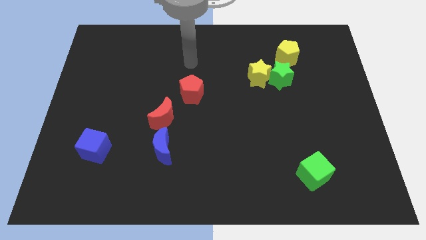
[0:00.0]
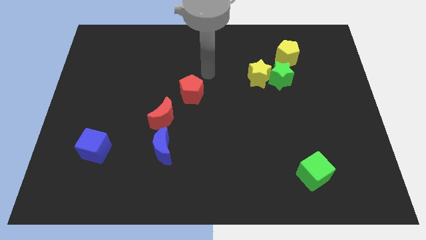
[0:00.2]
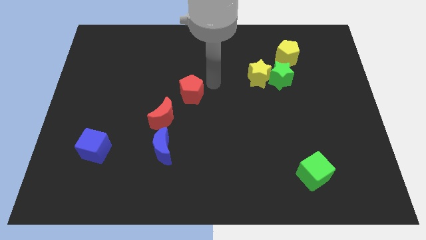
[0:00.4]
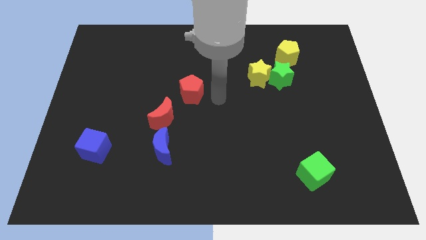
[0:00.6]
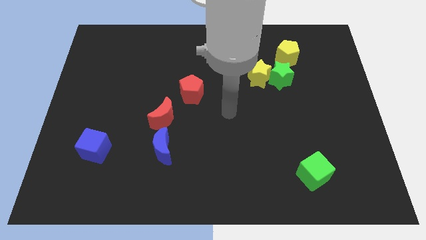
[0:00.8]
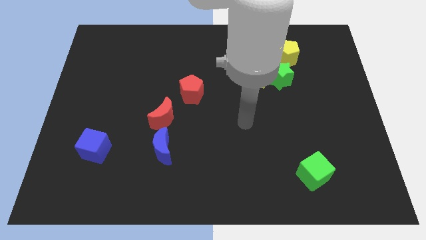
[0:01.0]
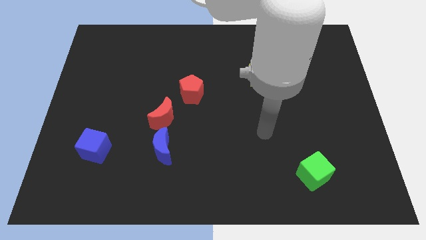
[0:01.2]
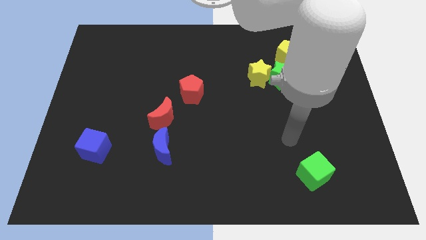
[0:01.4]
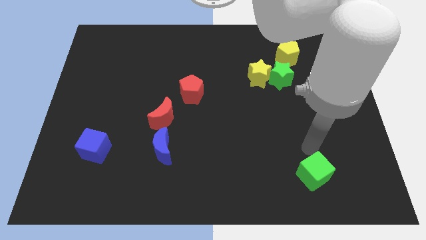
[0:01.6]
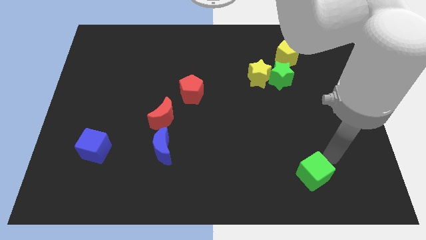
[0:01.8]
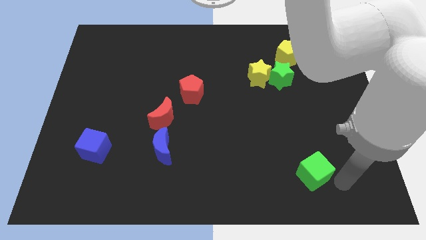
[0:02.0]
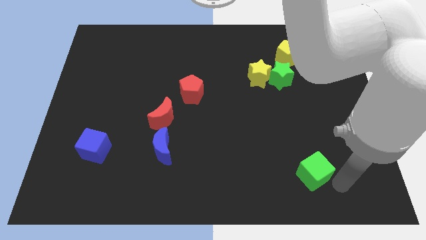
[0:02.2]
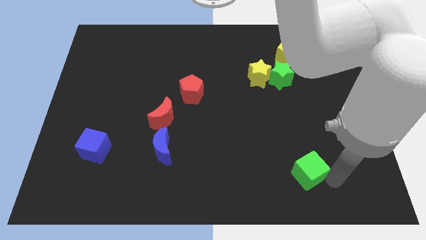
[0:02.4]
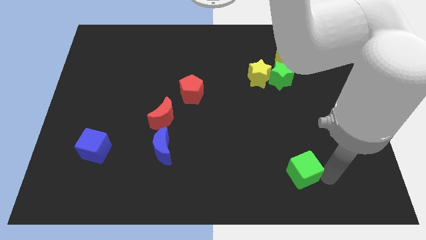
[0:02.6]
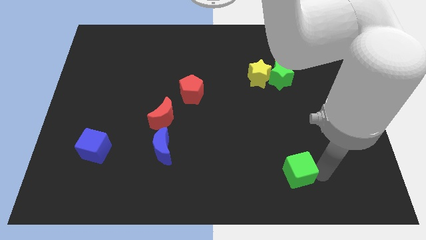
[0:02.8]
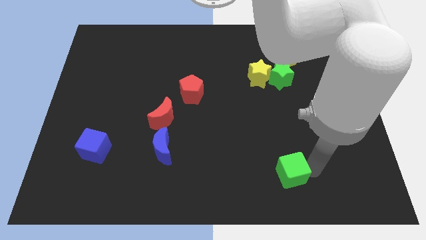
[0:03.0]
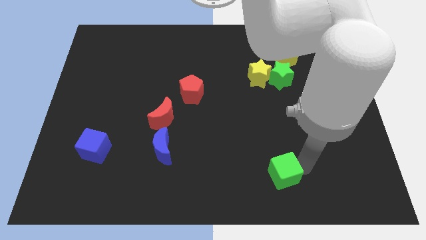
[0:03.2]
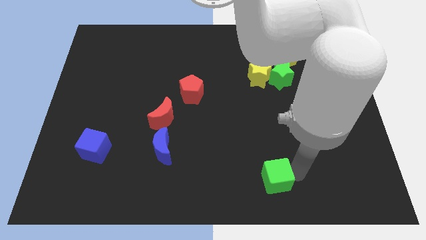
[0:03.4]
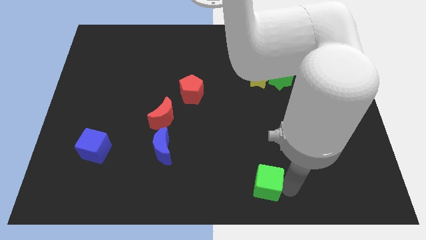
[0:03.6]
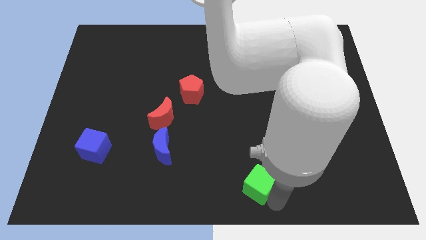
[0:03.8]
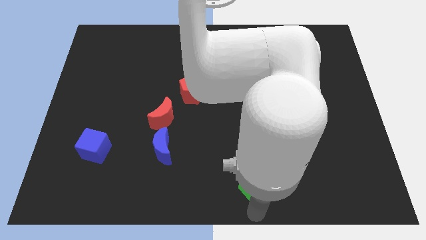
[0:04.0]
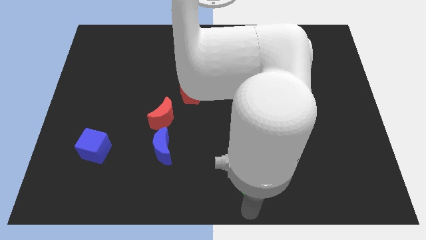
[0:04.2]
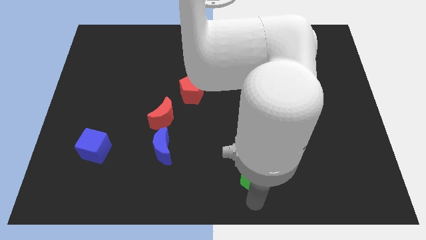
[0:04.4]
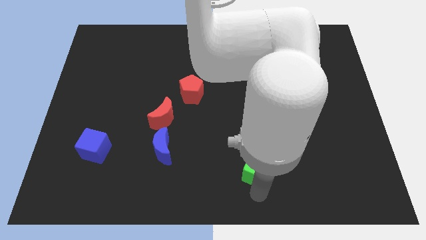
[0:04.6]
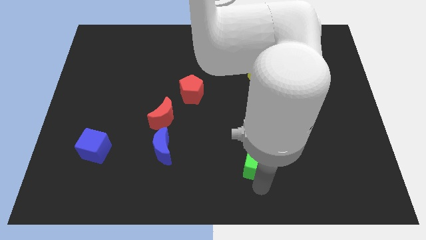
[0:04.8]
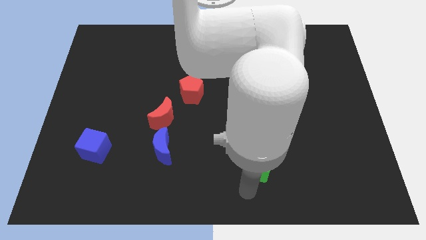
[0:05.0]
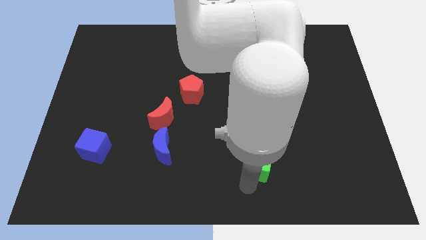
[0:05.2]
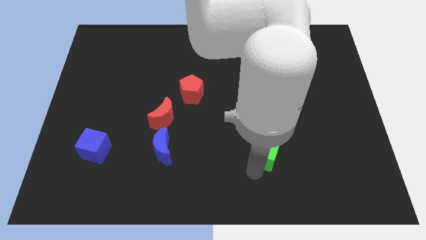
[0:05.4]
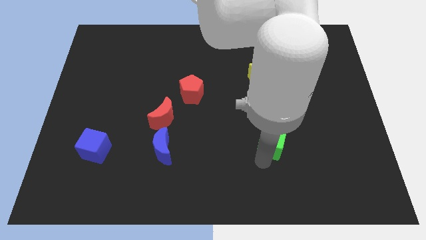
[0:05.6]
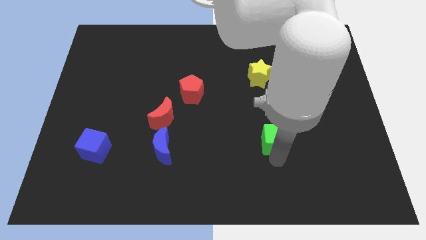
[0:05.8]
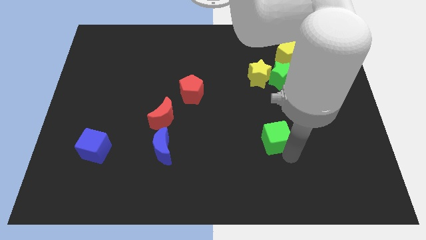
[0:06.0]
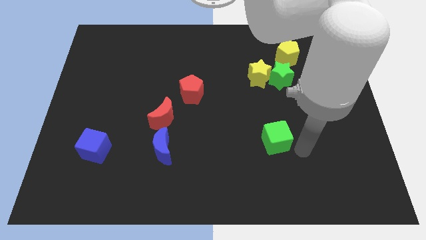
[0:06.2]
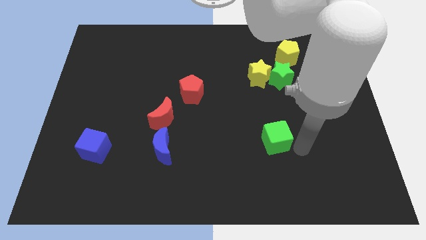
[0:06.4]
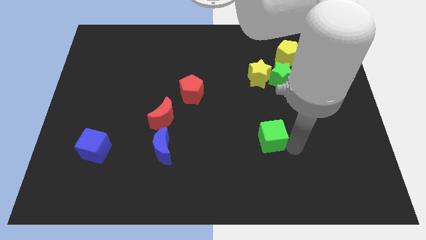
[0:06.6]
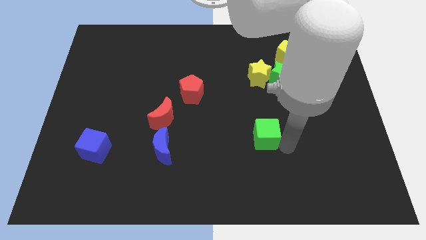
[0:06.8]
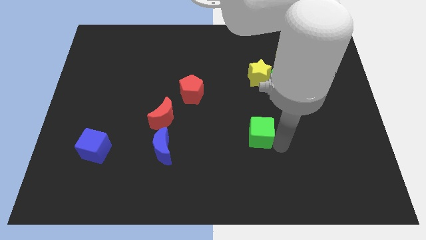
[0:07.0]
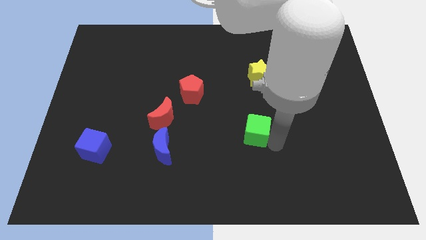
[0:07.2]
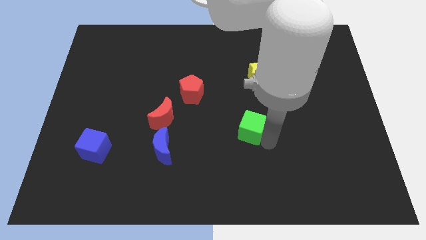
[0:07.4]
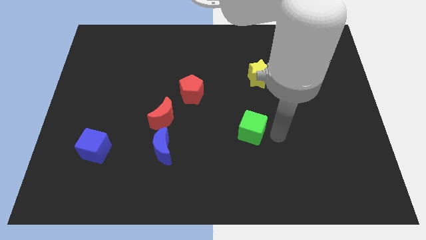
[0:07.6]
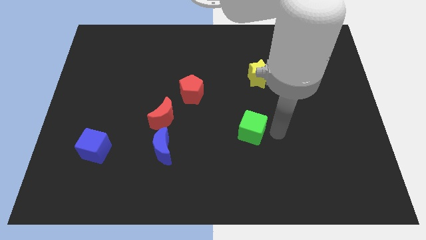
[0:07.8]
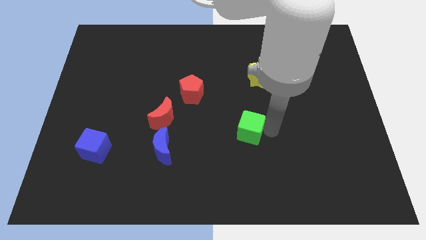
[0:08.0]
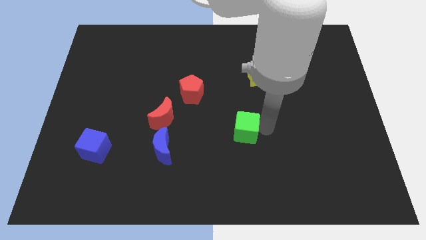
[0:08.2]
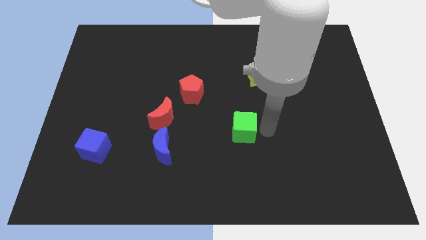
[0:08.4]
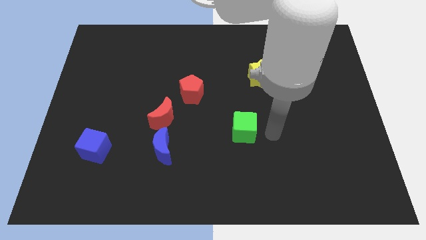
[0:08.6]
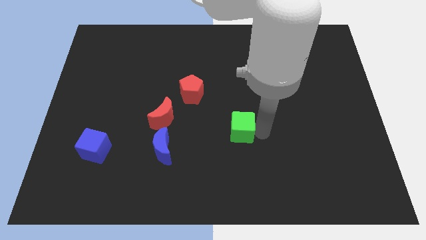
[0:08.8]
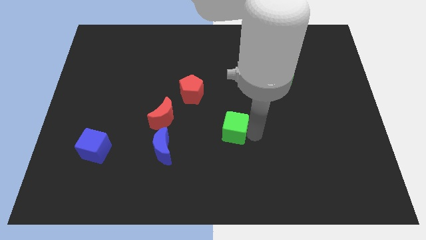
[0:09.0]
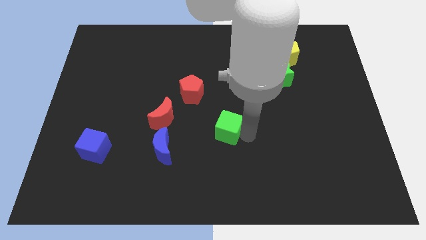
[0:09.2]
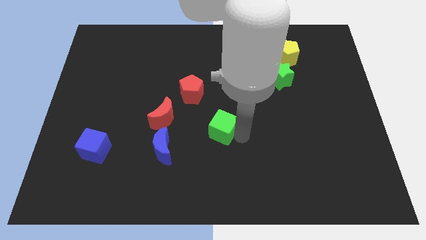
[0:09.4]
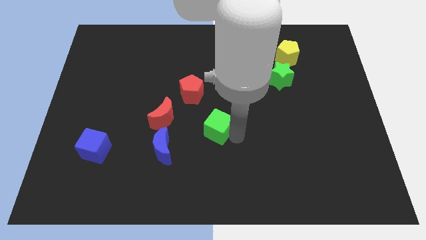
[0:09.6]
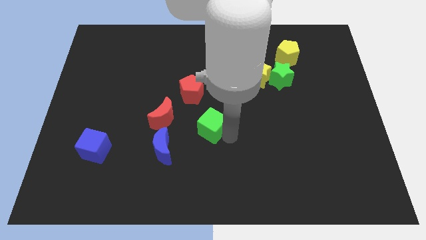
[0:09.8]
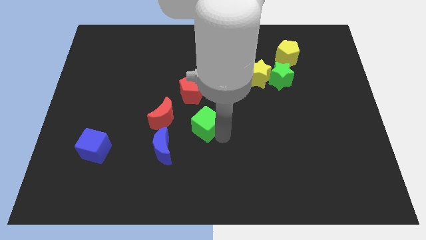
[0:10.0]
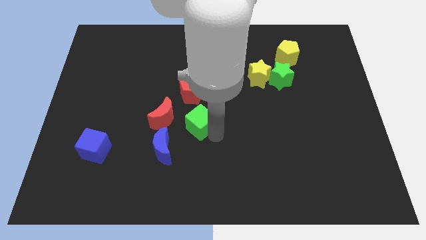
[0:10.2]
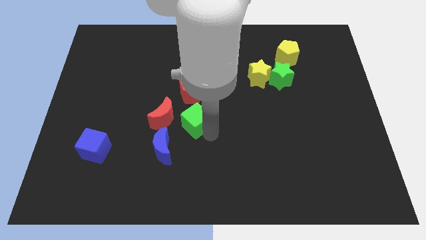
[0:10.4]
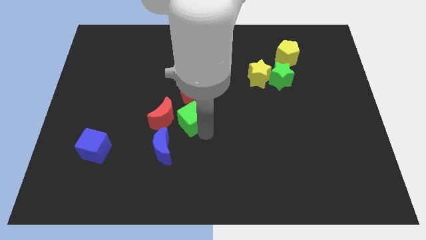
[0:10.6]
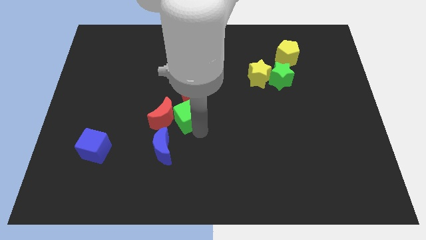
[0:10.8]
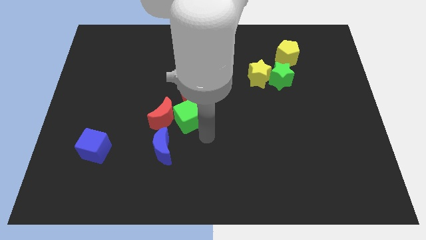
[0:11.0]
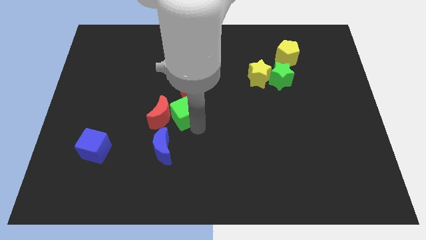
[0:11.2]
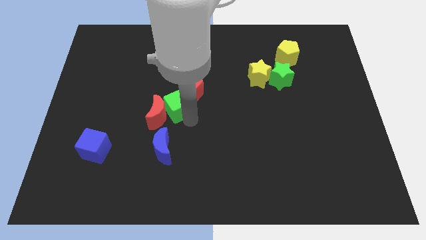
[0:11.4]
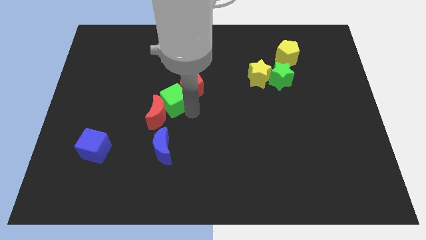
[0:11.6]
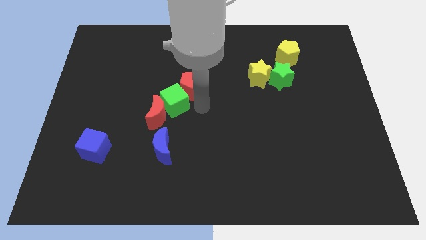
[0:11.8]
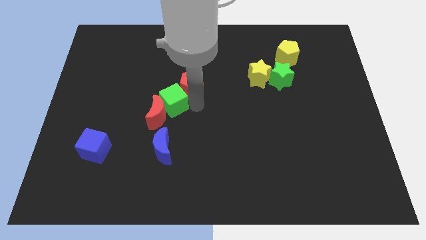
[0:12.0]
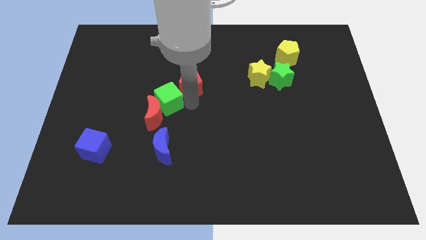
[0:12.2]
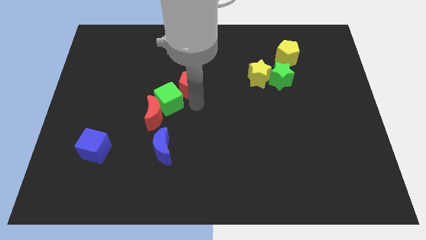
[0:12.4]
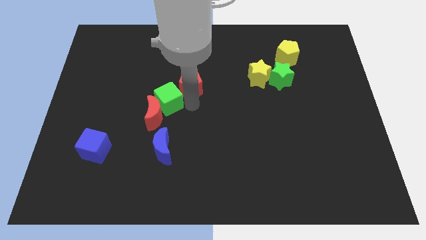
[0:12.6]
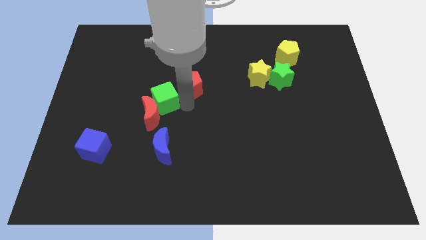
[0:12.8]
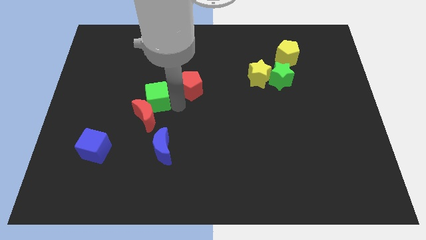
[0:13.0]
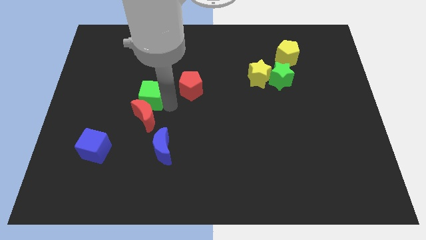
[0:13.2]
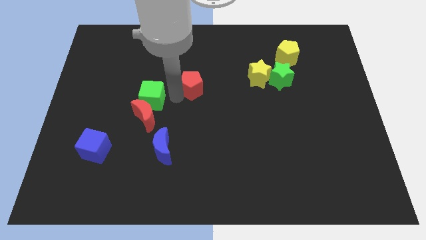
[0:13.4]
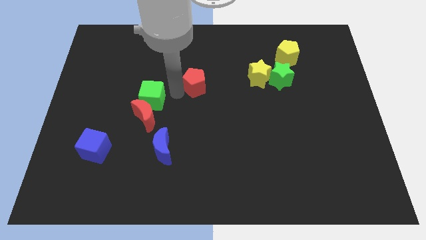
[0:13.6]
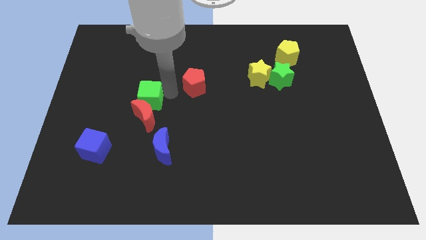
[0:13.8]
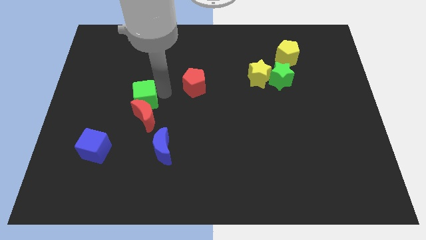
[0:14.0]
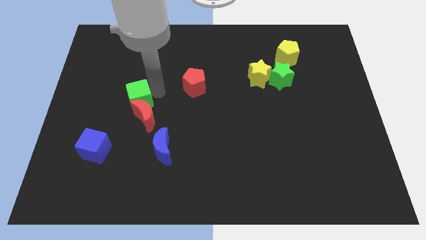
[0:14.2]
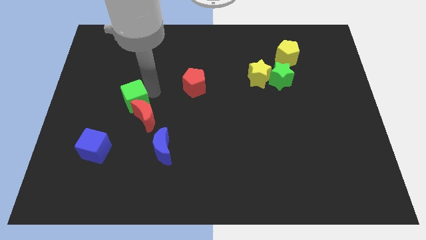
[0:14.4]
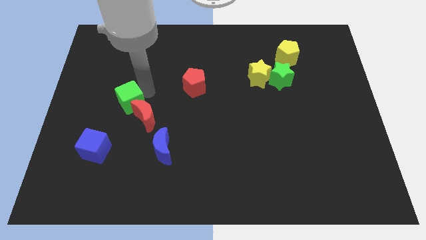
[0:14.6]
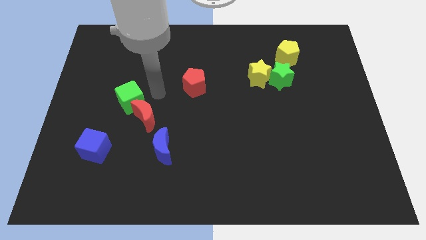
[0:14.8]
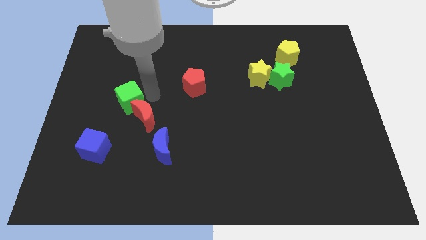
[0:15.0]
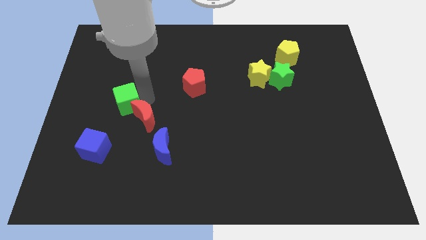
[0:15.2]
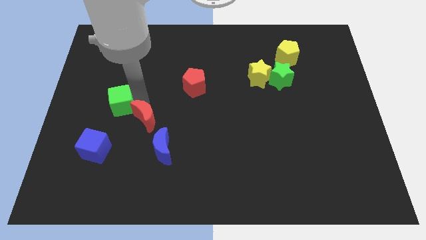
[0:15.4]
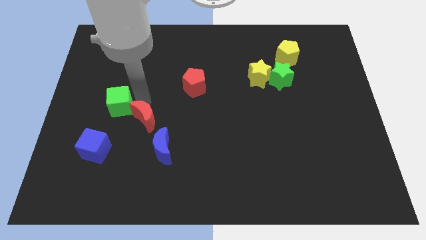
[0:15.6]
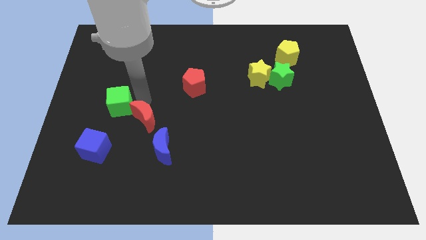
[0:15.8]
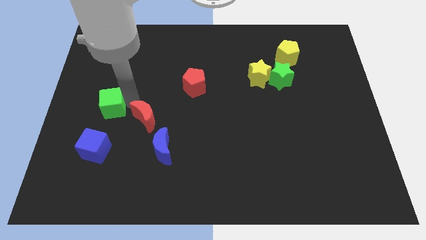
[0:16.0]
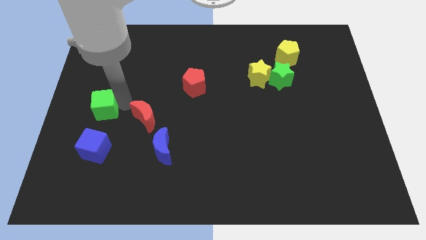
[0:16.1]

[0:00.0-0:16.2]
push the green cube to the left side
